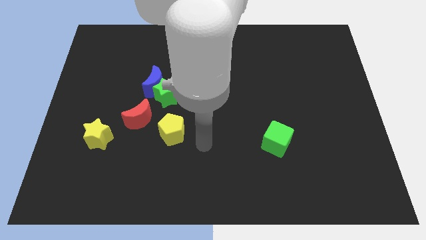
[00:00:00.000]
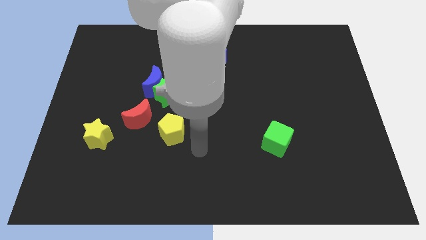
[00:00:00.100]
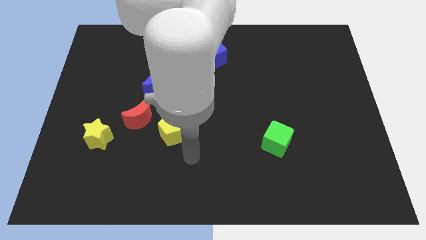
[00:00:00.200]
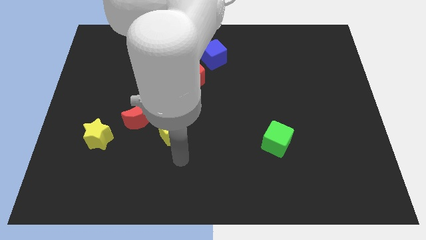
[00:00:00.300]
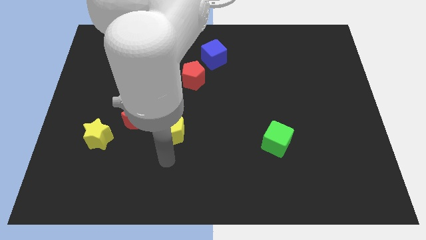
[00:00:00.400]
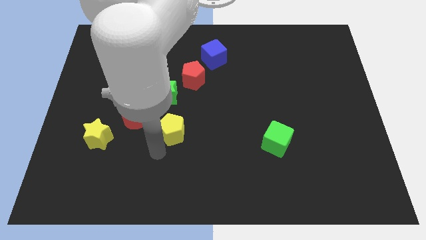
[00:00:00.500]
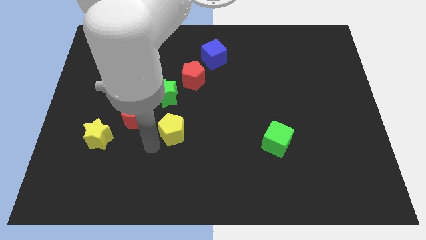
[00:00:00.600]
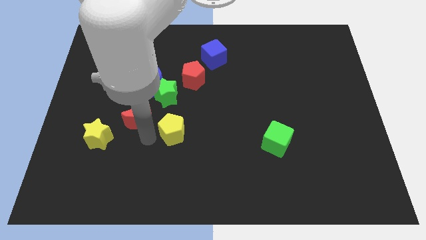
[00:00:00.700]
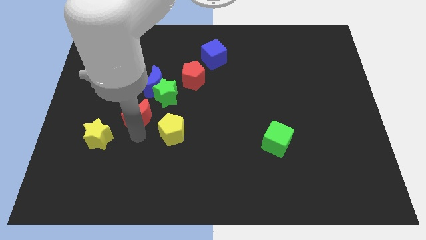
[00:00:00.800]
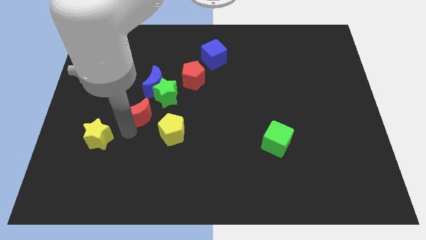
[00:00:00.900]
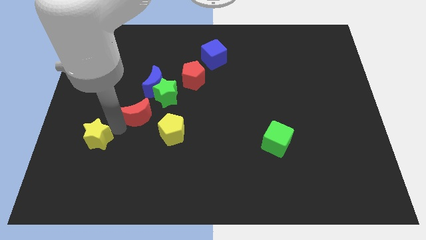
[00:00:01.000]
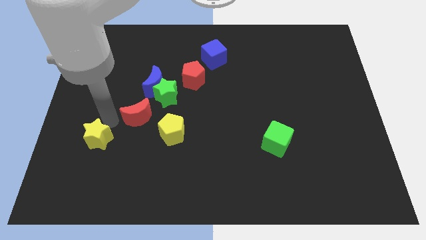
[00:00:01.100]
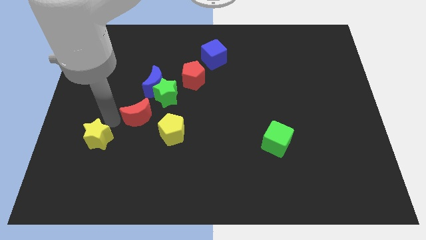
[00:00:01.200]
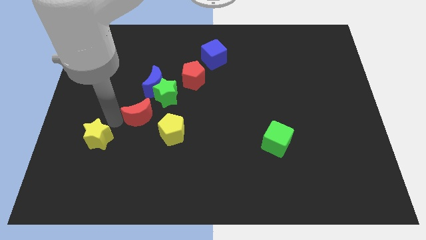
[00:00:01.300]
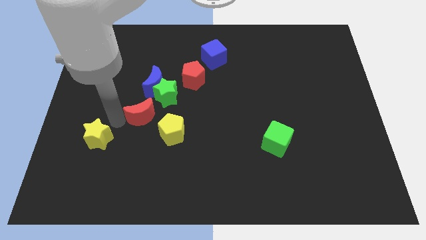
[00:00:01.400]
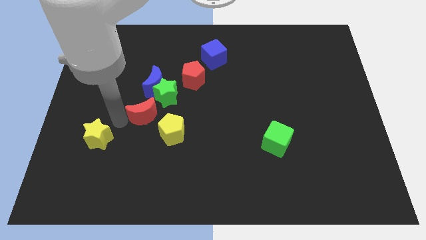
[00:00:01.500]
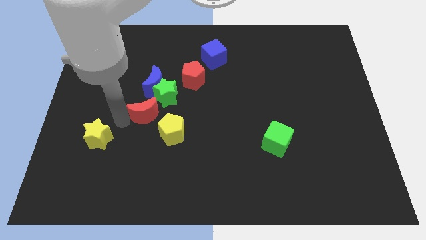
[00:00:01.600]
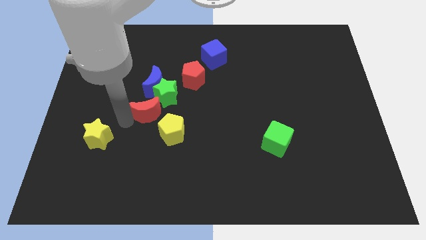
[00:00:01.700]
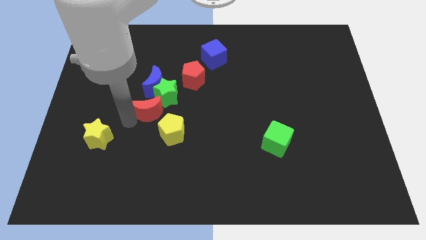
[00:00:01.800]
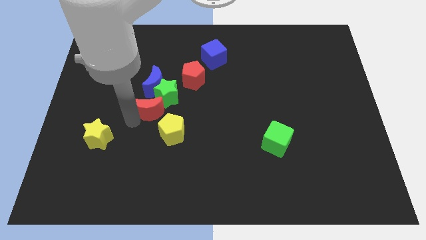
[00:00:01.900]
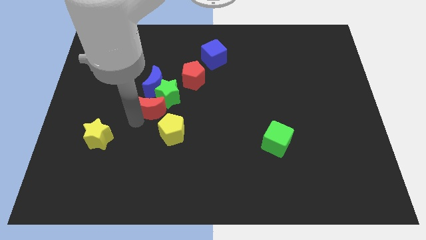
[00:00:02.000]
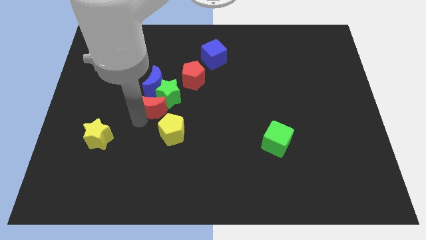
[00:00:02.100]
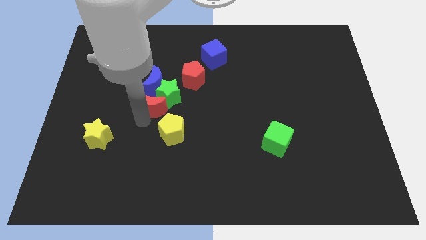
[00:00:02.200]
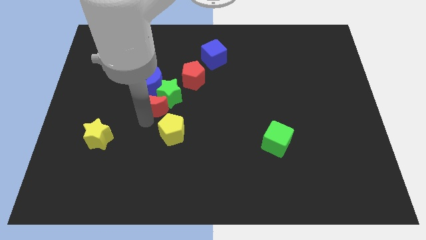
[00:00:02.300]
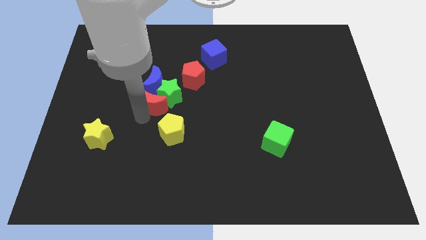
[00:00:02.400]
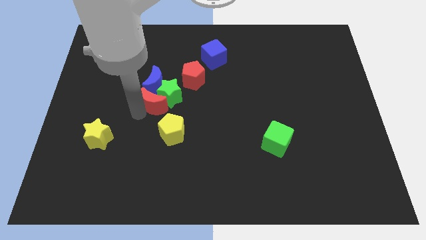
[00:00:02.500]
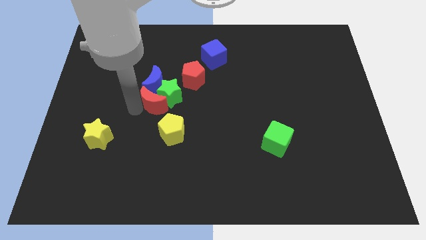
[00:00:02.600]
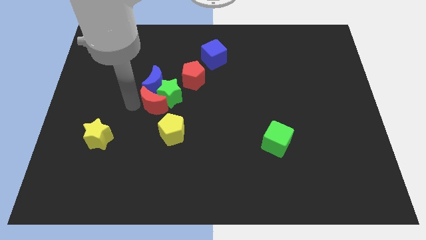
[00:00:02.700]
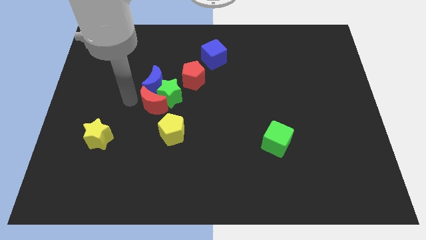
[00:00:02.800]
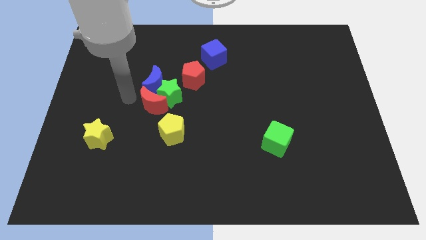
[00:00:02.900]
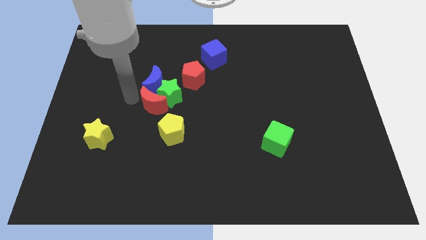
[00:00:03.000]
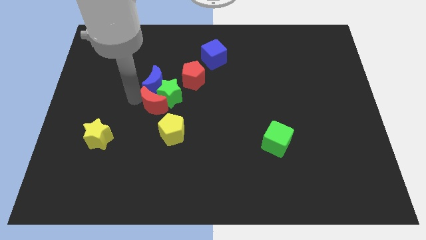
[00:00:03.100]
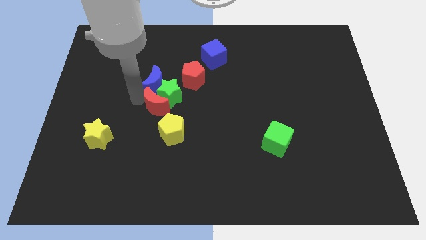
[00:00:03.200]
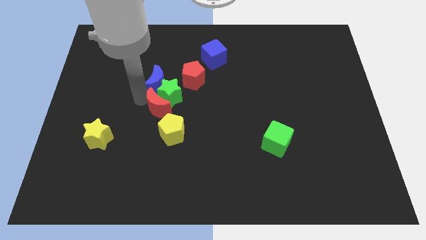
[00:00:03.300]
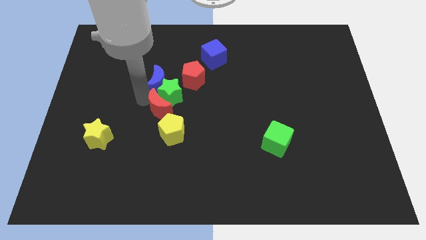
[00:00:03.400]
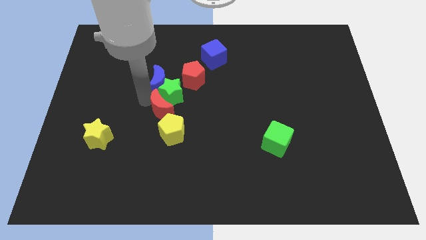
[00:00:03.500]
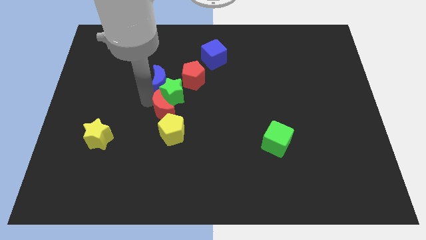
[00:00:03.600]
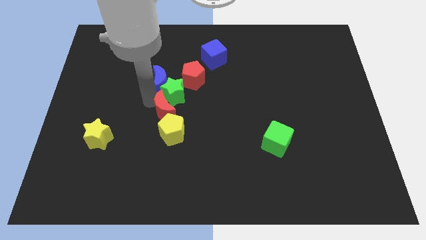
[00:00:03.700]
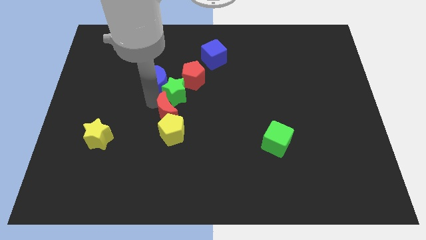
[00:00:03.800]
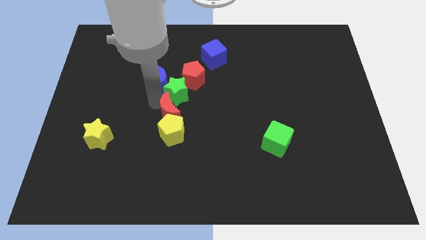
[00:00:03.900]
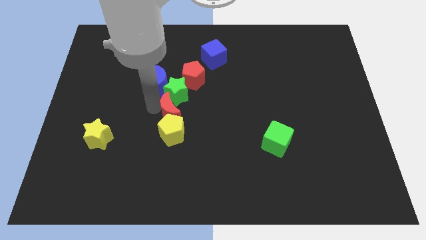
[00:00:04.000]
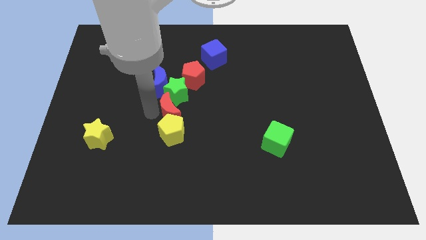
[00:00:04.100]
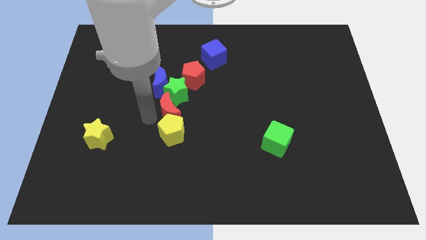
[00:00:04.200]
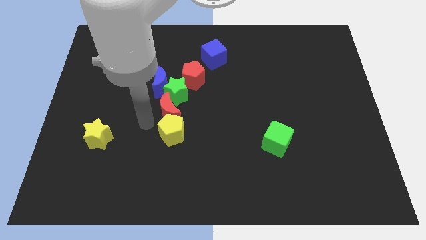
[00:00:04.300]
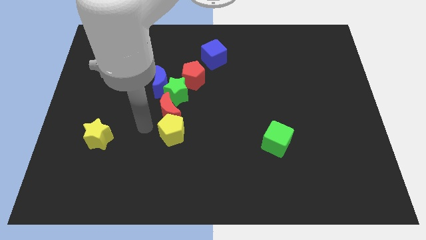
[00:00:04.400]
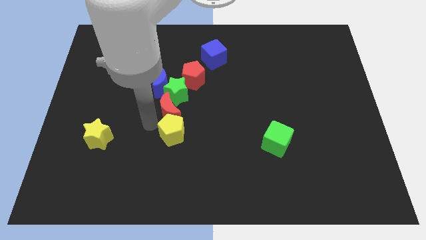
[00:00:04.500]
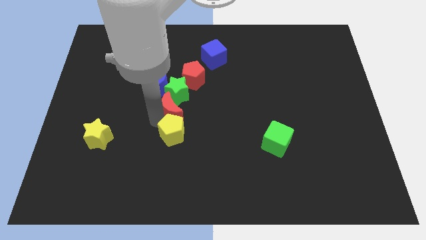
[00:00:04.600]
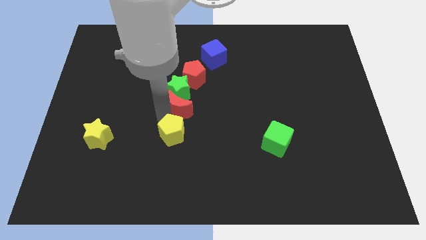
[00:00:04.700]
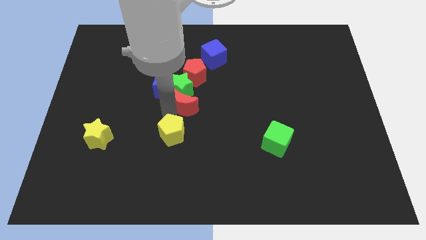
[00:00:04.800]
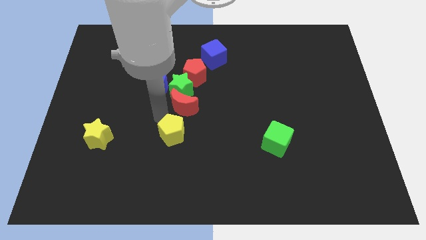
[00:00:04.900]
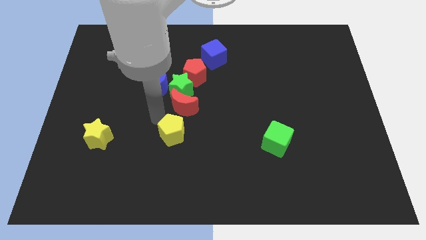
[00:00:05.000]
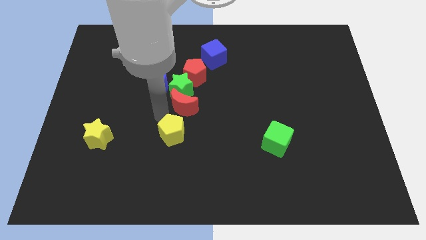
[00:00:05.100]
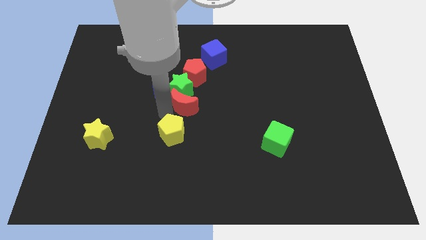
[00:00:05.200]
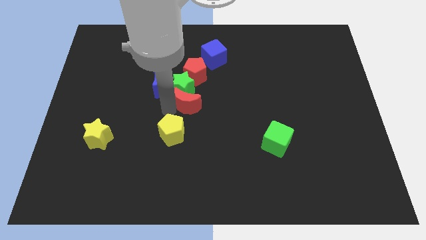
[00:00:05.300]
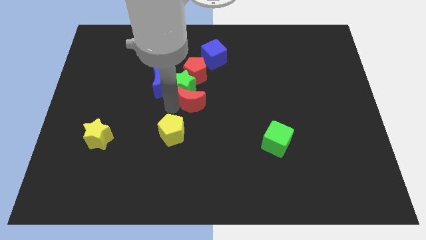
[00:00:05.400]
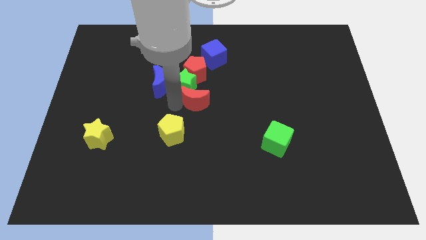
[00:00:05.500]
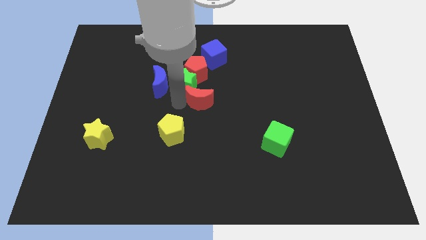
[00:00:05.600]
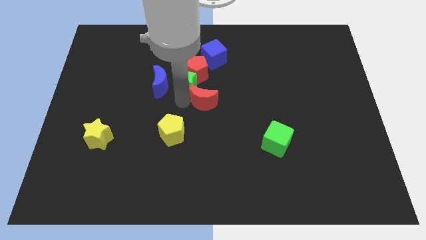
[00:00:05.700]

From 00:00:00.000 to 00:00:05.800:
put the red moon right of the green star
